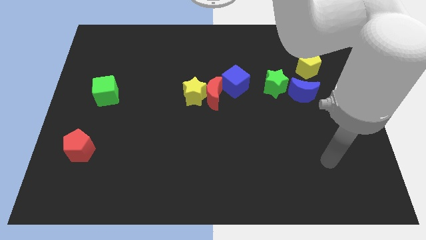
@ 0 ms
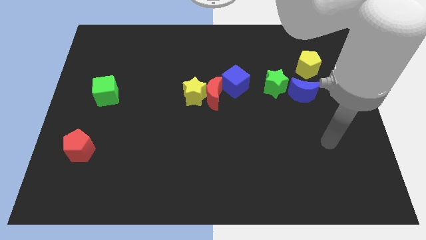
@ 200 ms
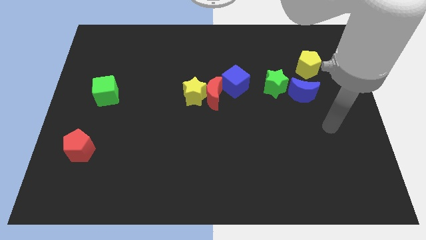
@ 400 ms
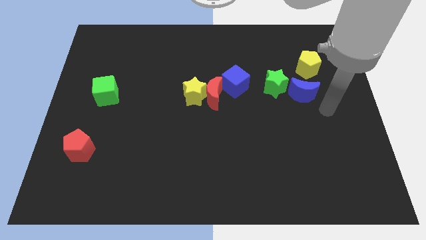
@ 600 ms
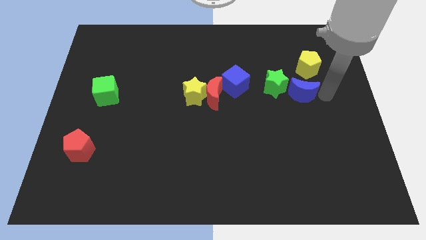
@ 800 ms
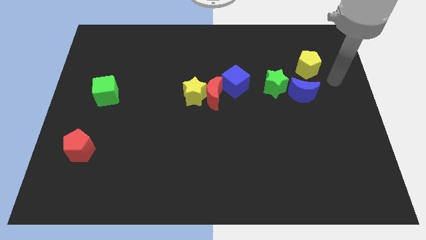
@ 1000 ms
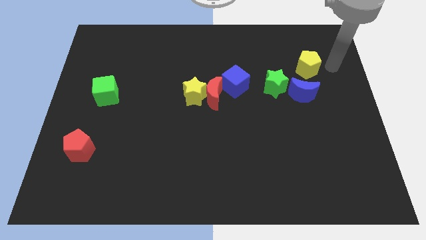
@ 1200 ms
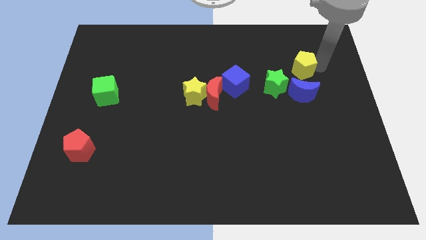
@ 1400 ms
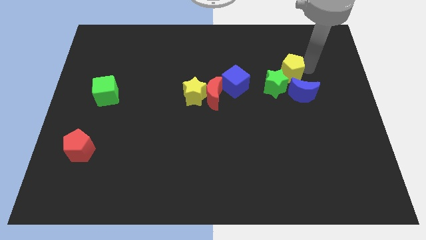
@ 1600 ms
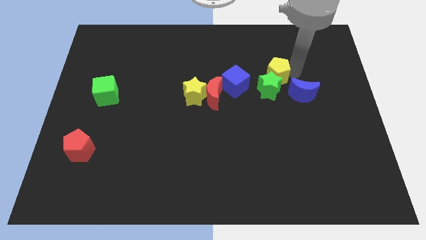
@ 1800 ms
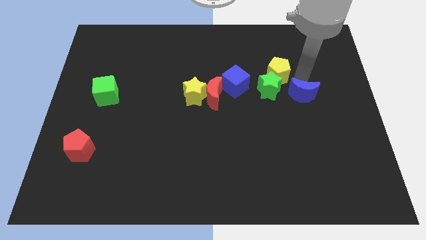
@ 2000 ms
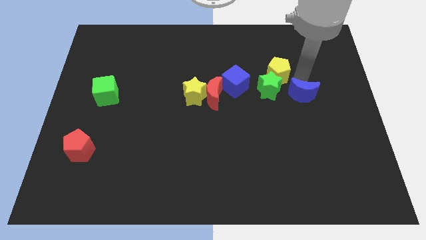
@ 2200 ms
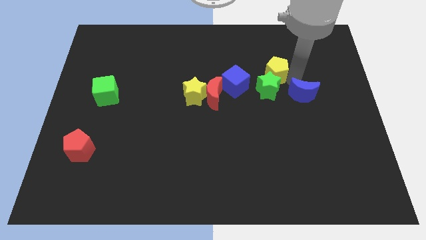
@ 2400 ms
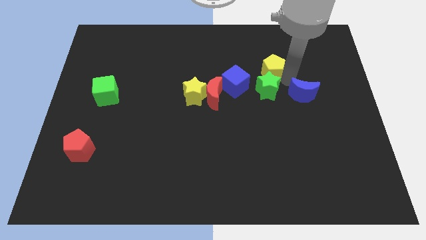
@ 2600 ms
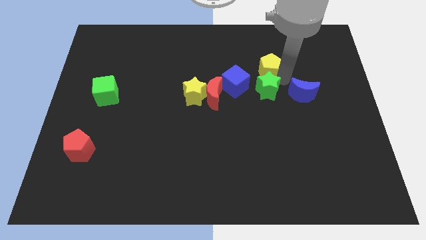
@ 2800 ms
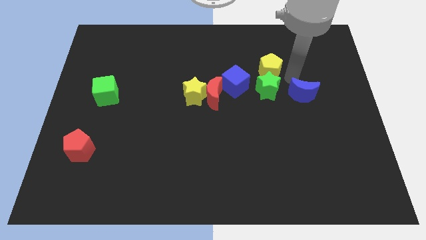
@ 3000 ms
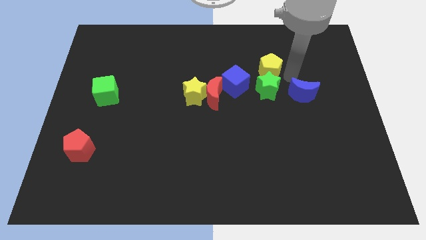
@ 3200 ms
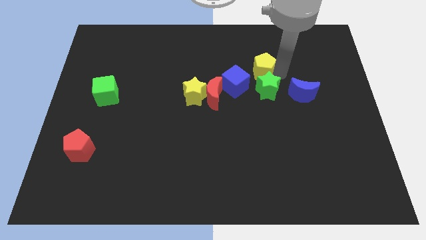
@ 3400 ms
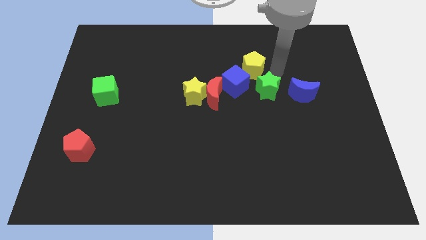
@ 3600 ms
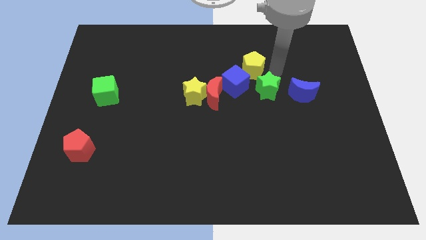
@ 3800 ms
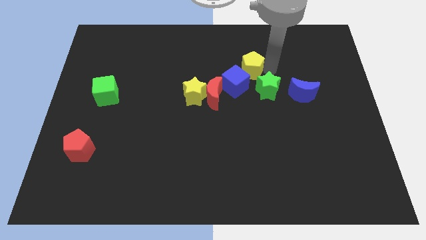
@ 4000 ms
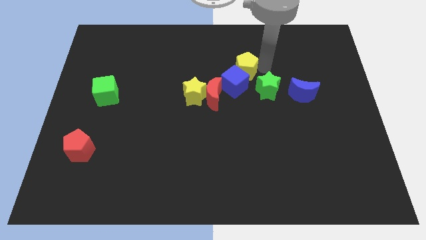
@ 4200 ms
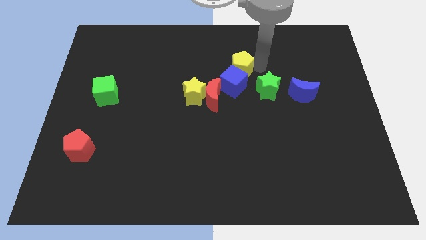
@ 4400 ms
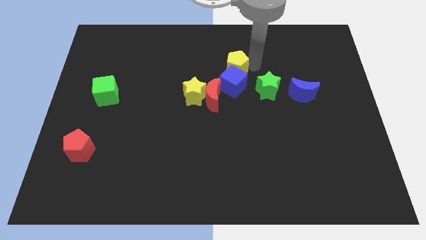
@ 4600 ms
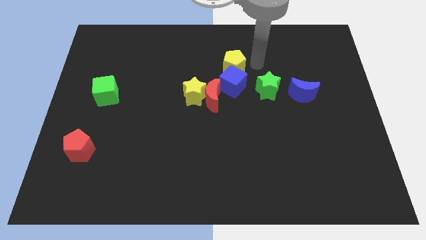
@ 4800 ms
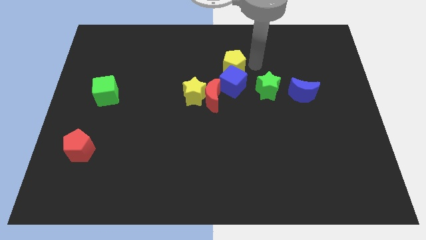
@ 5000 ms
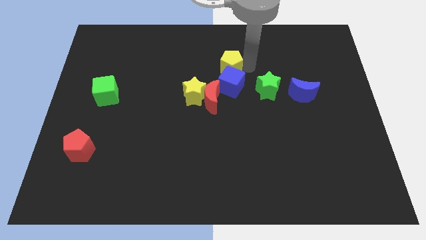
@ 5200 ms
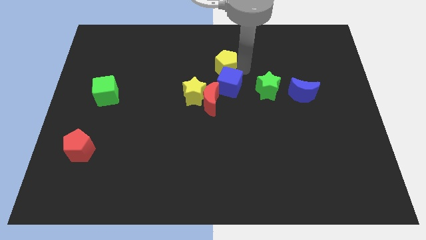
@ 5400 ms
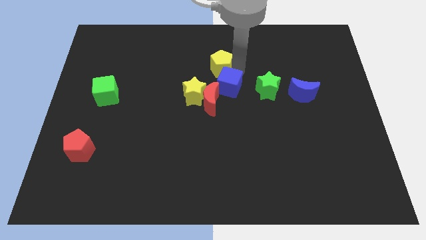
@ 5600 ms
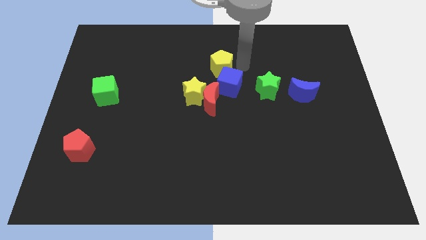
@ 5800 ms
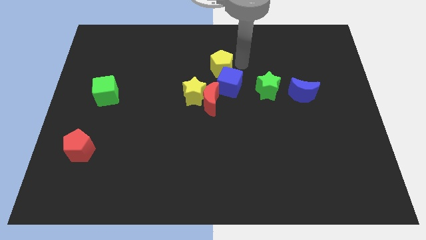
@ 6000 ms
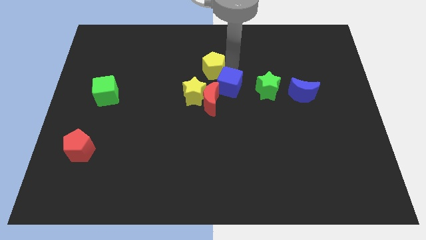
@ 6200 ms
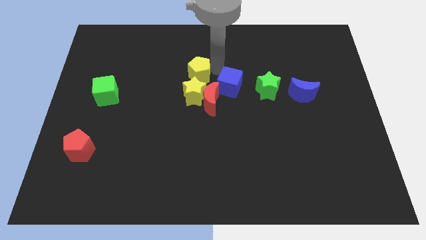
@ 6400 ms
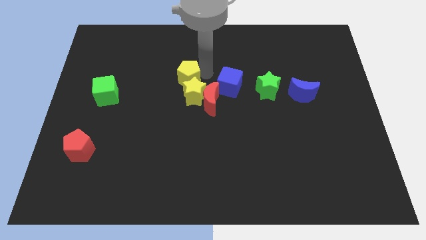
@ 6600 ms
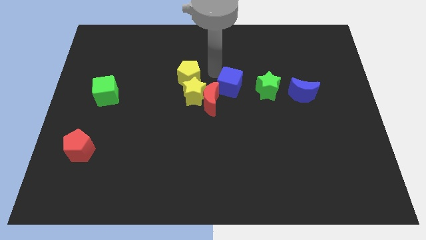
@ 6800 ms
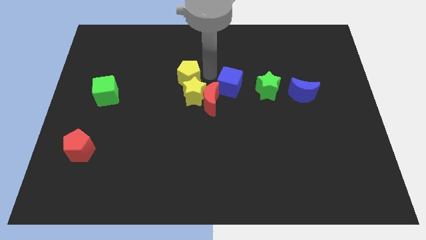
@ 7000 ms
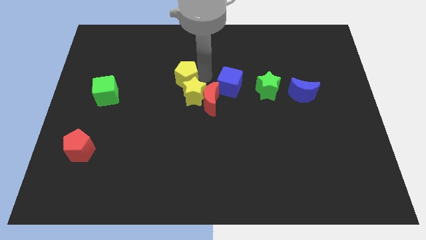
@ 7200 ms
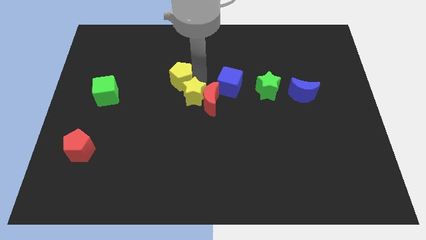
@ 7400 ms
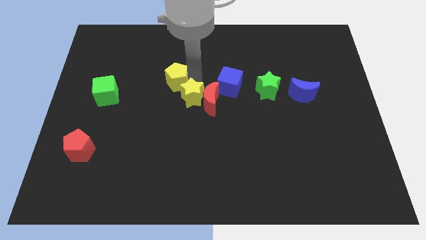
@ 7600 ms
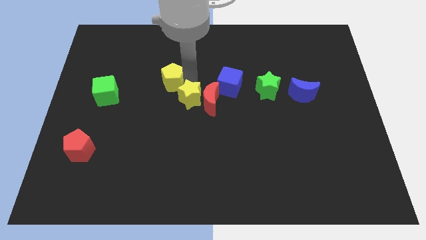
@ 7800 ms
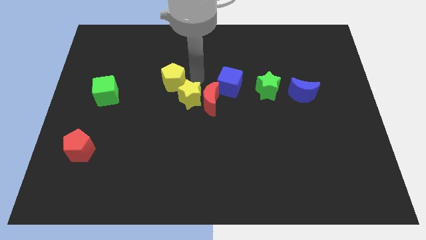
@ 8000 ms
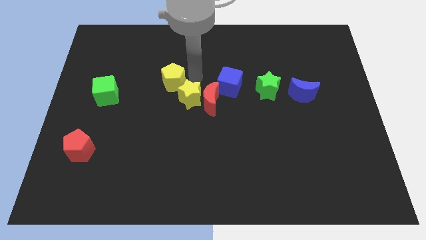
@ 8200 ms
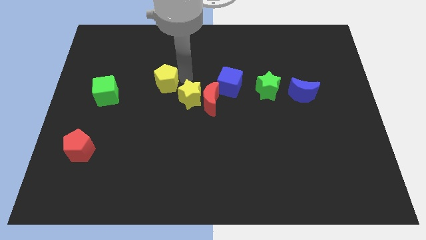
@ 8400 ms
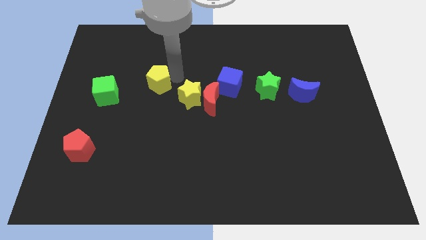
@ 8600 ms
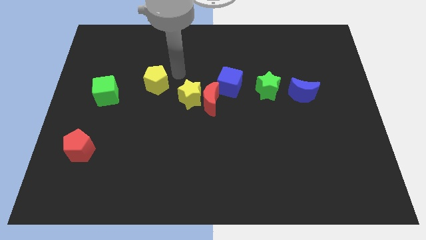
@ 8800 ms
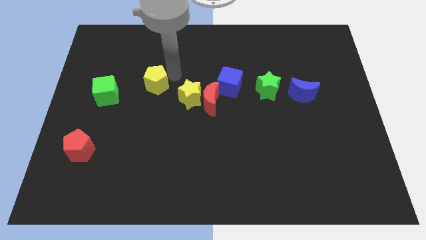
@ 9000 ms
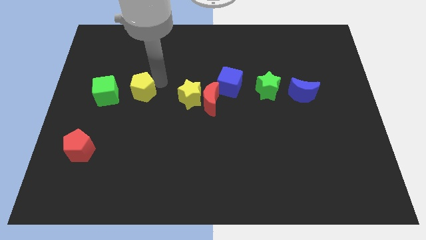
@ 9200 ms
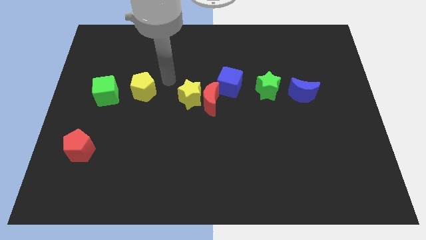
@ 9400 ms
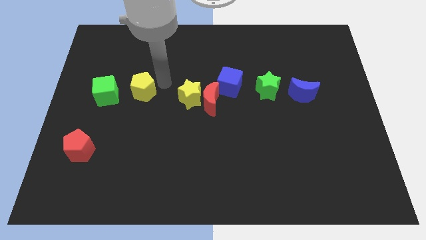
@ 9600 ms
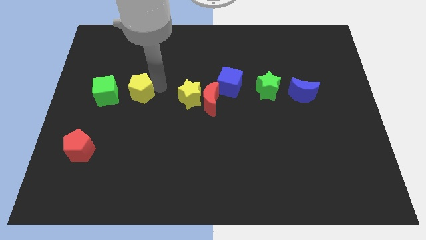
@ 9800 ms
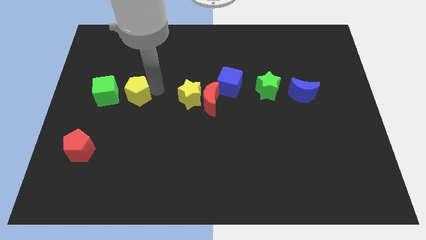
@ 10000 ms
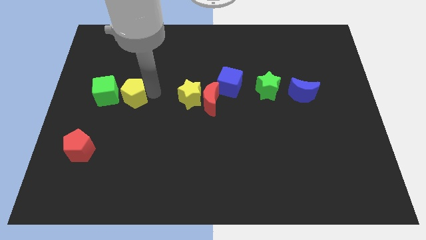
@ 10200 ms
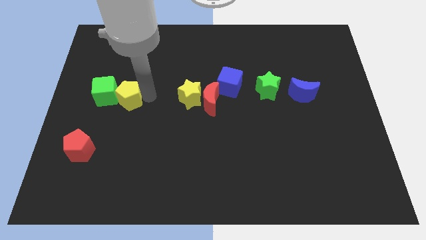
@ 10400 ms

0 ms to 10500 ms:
put the yellow pentagon close to the green cube

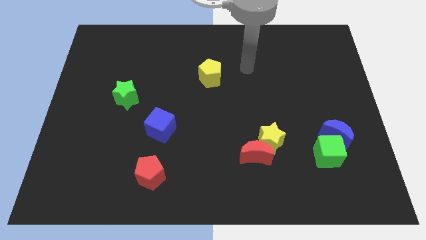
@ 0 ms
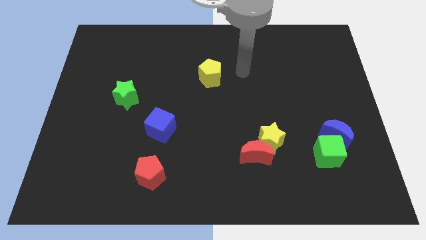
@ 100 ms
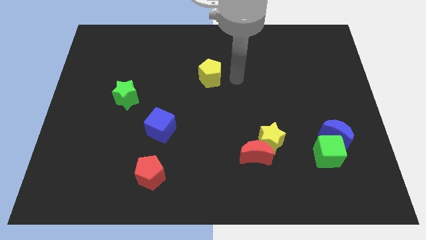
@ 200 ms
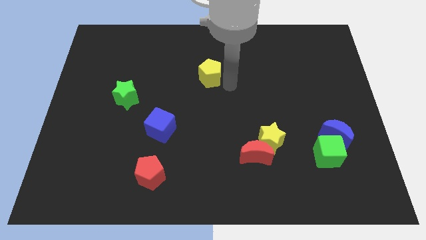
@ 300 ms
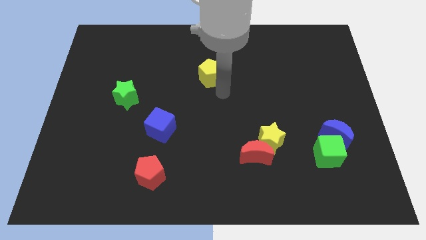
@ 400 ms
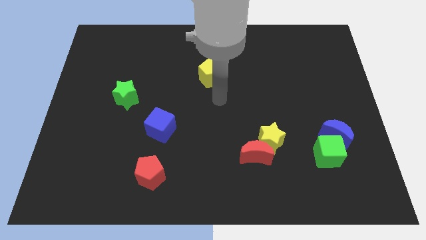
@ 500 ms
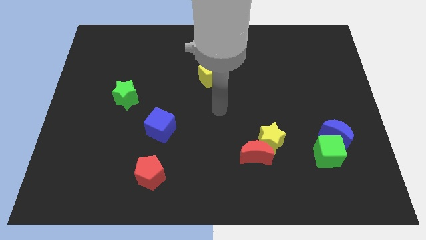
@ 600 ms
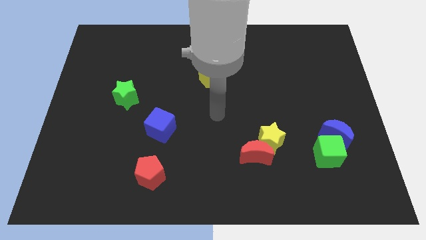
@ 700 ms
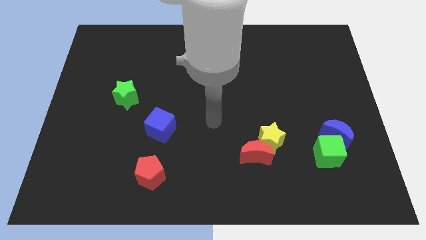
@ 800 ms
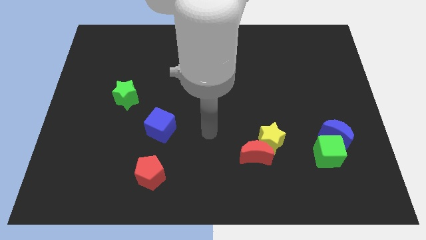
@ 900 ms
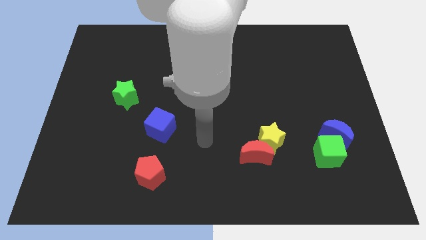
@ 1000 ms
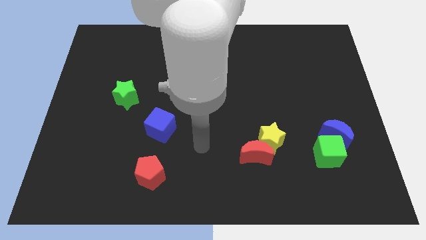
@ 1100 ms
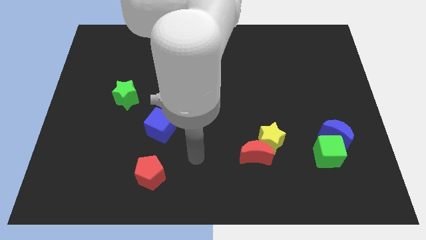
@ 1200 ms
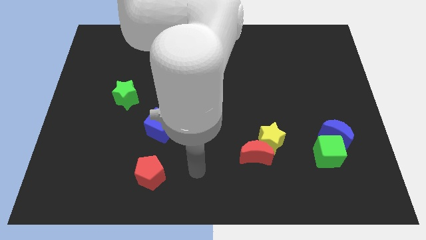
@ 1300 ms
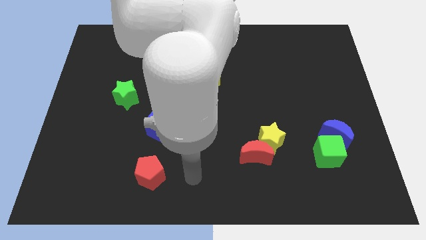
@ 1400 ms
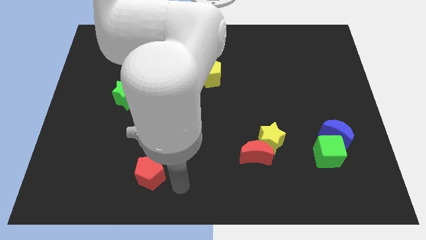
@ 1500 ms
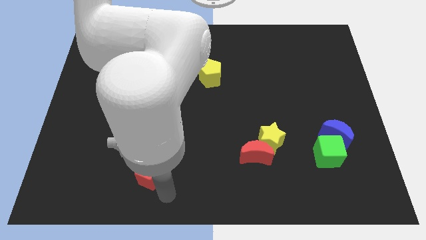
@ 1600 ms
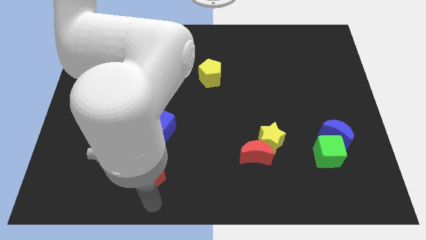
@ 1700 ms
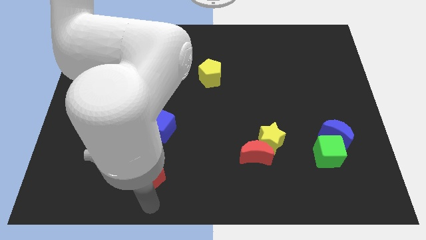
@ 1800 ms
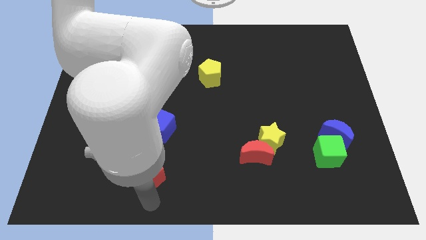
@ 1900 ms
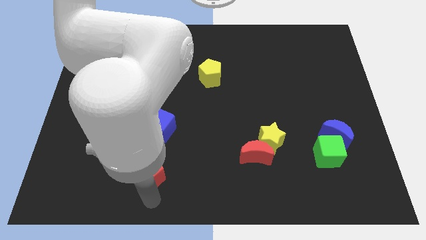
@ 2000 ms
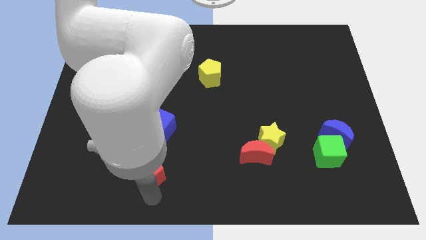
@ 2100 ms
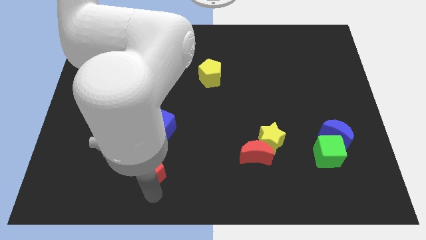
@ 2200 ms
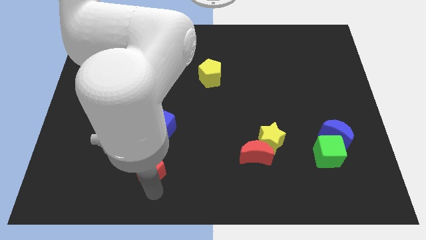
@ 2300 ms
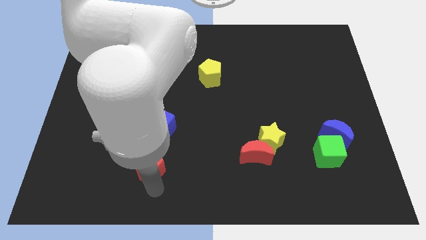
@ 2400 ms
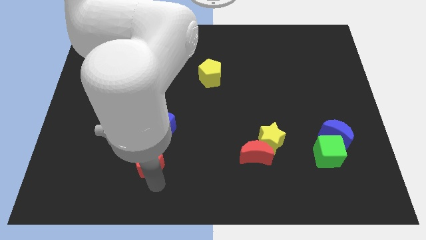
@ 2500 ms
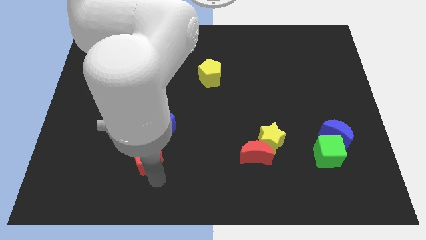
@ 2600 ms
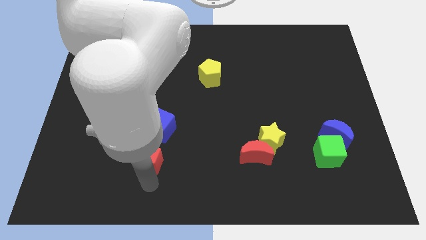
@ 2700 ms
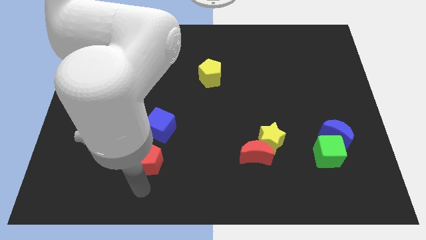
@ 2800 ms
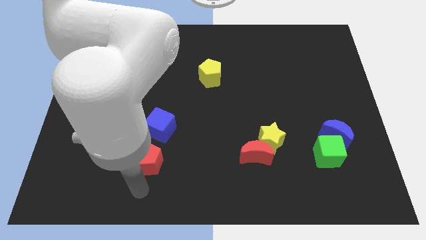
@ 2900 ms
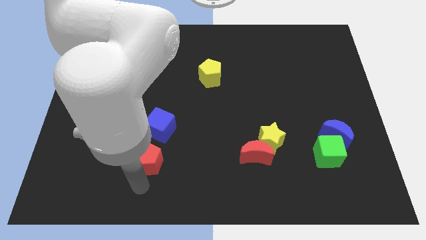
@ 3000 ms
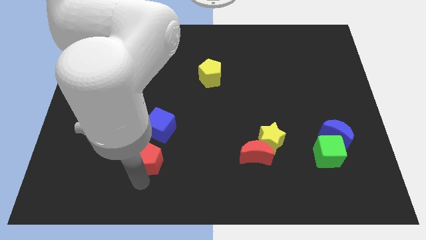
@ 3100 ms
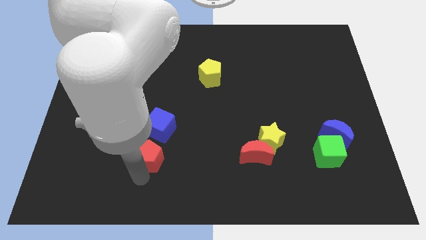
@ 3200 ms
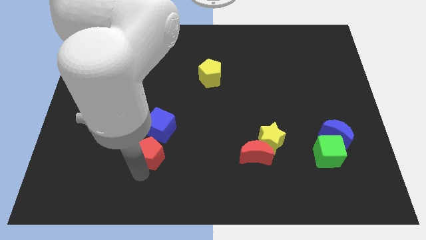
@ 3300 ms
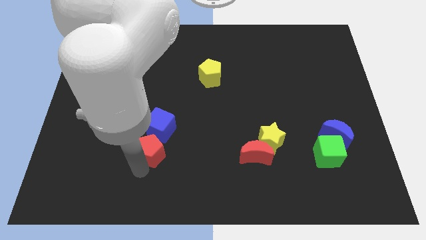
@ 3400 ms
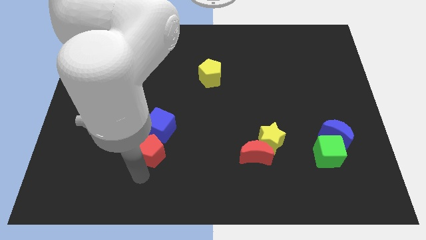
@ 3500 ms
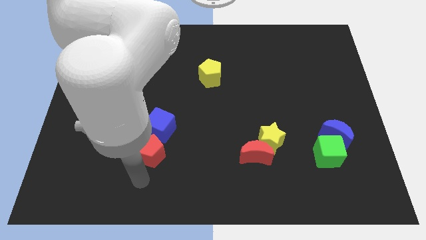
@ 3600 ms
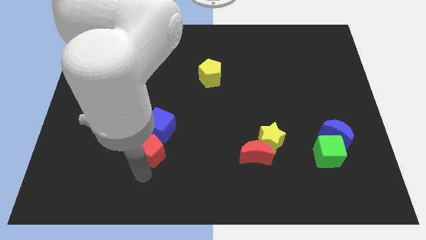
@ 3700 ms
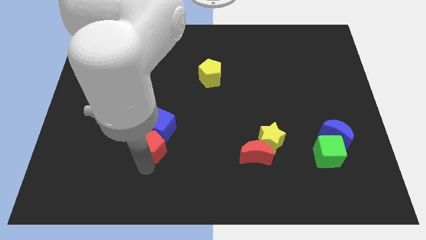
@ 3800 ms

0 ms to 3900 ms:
put the red pentagon towards the blue cube
